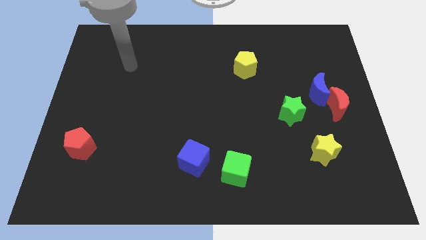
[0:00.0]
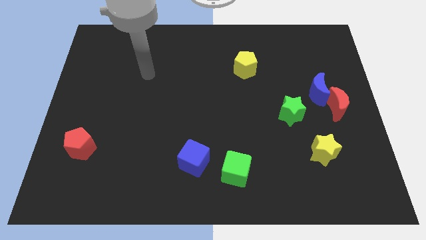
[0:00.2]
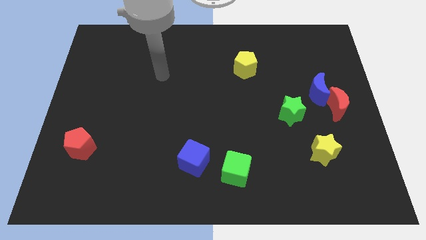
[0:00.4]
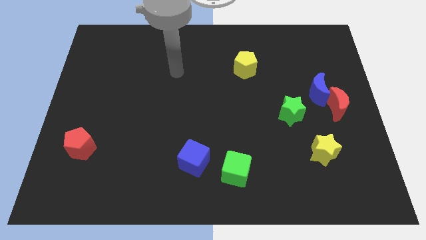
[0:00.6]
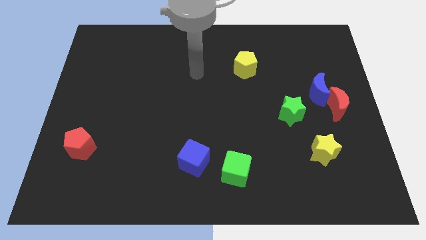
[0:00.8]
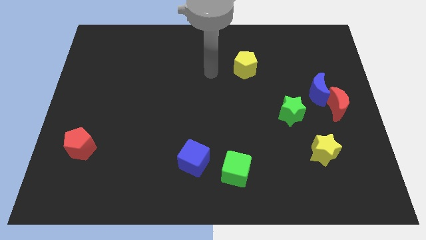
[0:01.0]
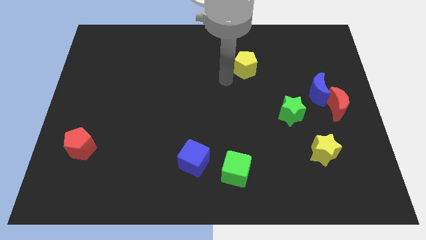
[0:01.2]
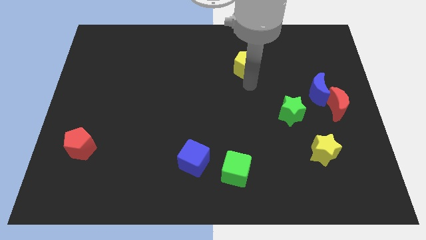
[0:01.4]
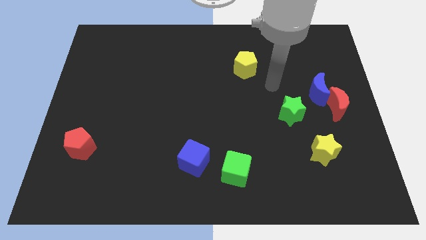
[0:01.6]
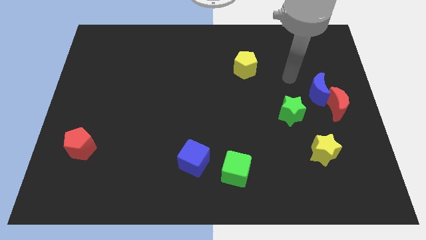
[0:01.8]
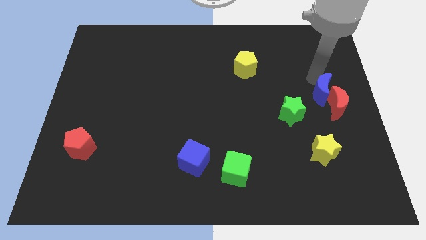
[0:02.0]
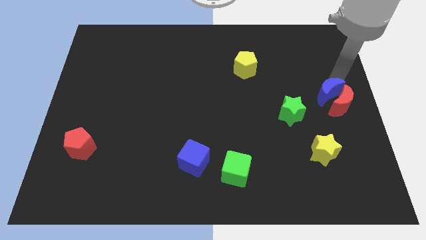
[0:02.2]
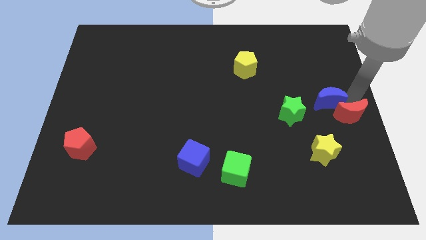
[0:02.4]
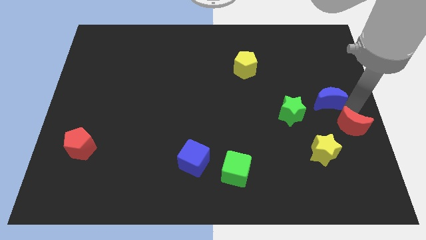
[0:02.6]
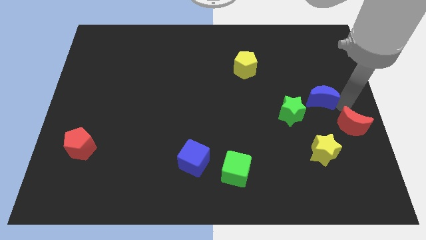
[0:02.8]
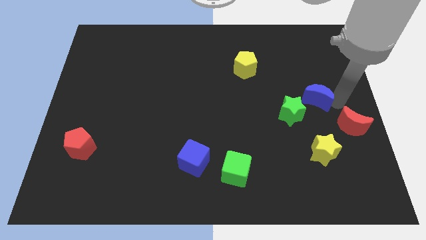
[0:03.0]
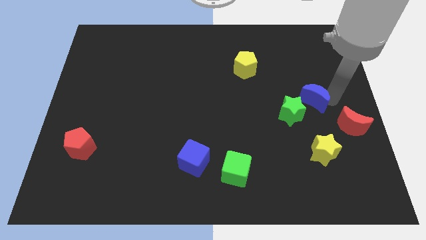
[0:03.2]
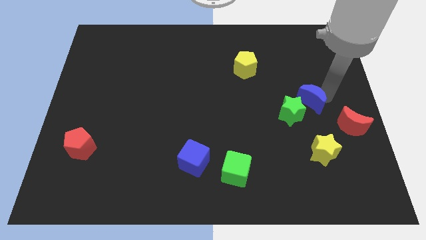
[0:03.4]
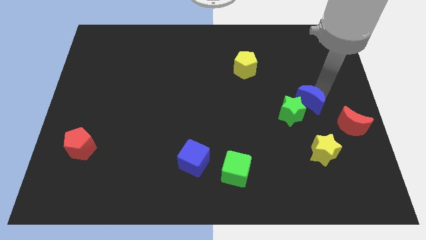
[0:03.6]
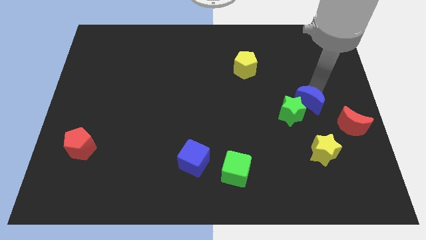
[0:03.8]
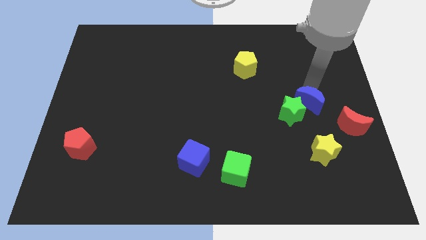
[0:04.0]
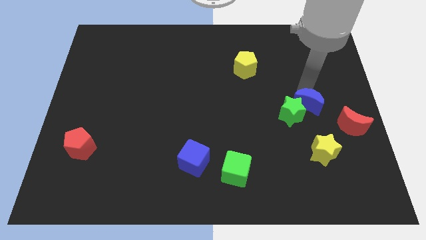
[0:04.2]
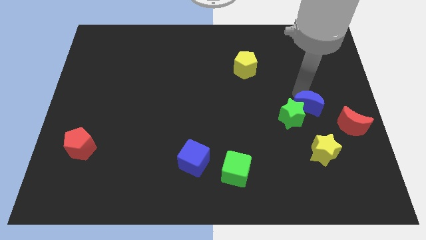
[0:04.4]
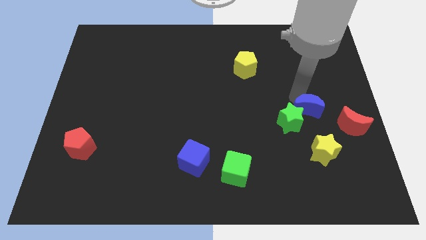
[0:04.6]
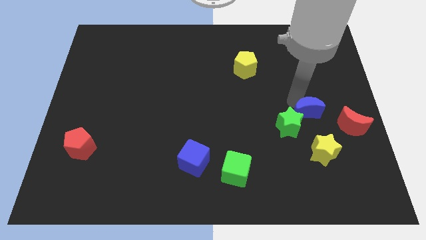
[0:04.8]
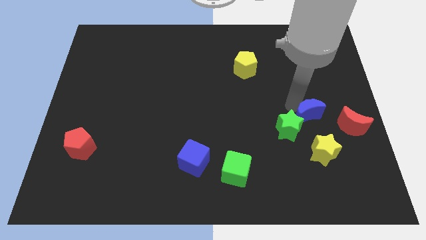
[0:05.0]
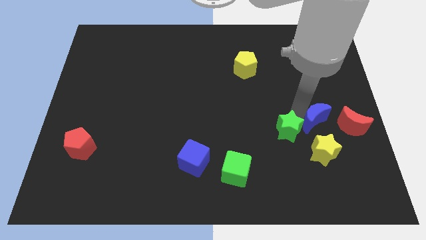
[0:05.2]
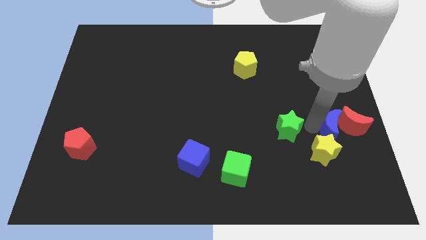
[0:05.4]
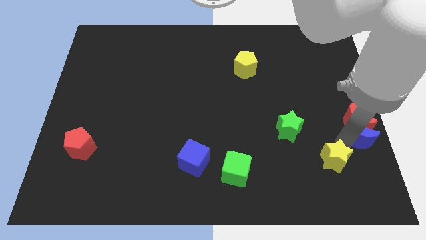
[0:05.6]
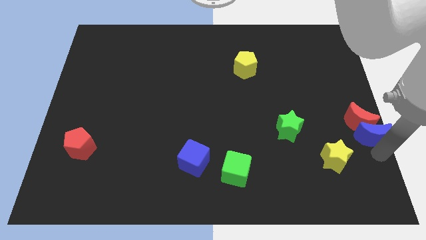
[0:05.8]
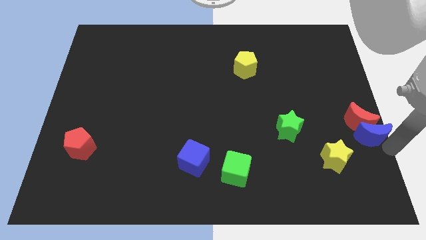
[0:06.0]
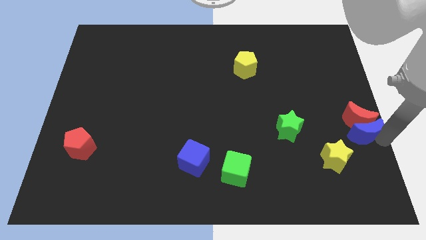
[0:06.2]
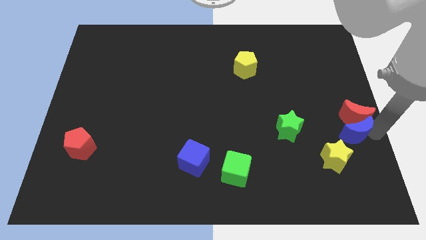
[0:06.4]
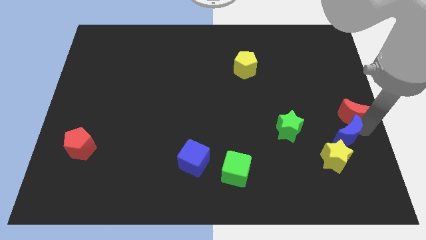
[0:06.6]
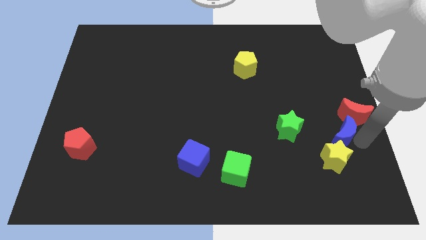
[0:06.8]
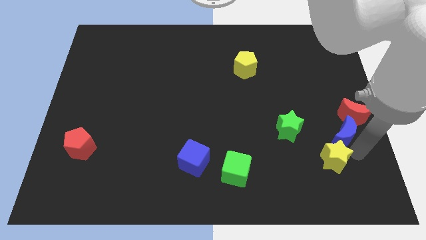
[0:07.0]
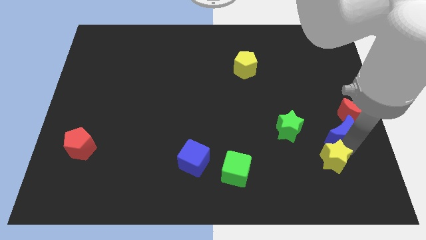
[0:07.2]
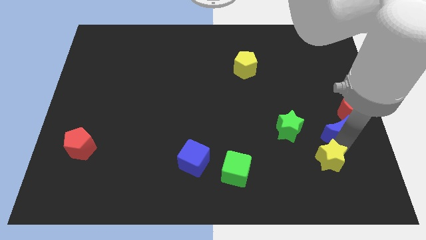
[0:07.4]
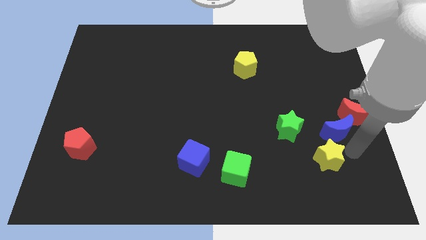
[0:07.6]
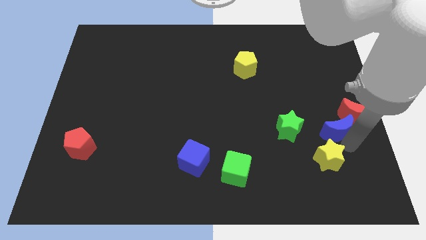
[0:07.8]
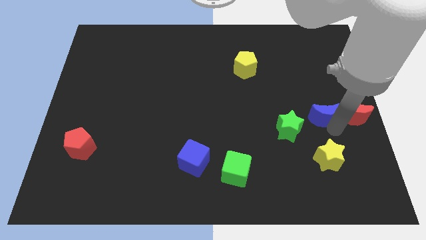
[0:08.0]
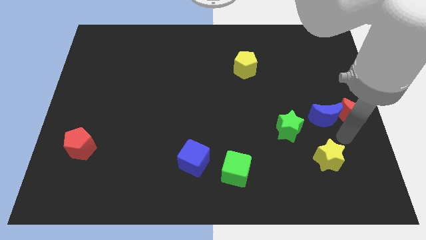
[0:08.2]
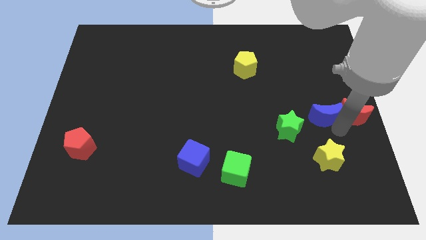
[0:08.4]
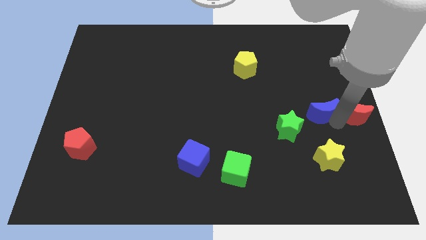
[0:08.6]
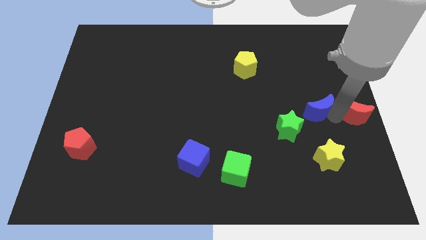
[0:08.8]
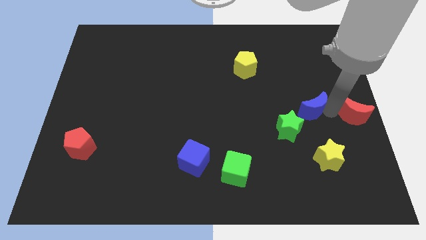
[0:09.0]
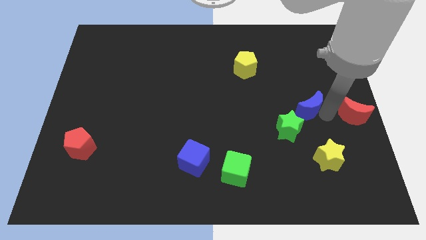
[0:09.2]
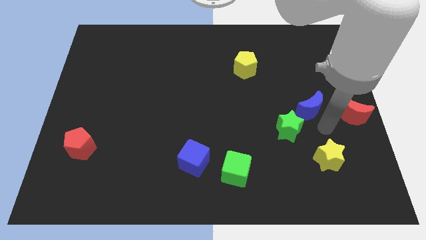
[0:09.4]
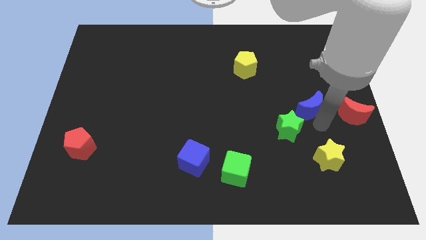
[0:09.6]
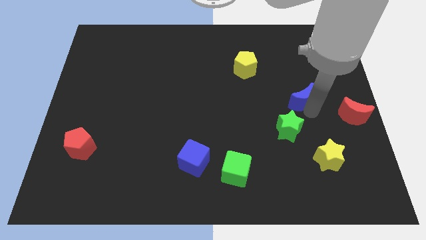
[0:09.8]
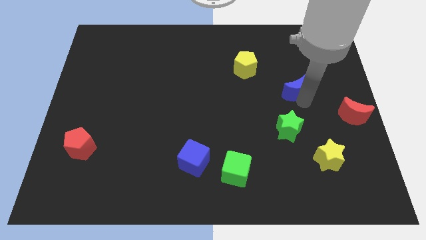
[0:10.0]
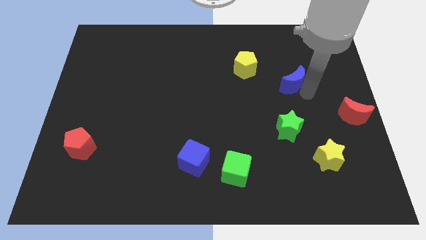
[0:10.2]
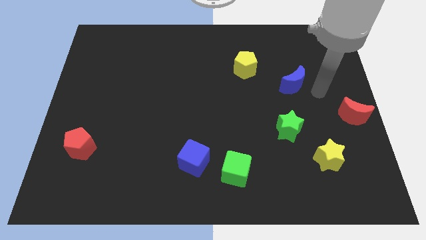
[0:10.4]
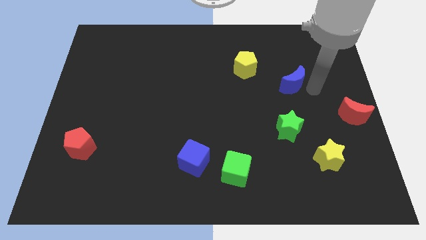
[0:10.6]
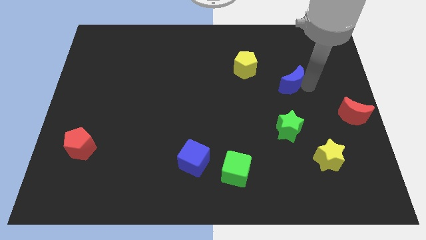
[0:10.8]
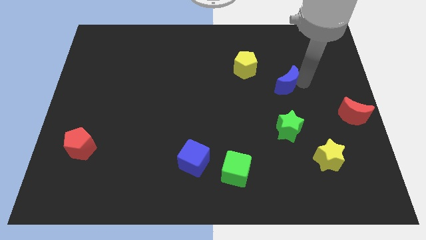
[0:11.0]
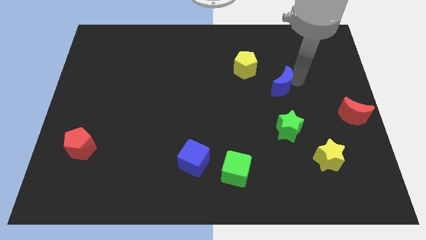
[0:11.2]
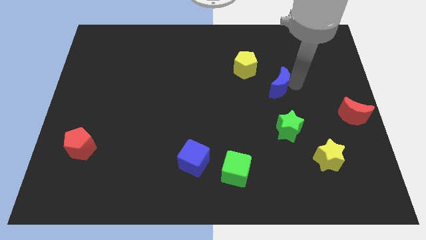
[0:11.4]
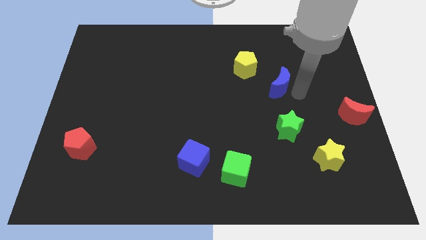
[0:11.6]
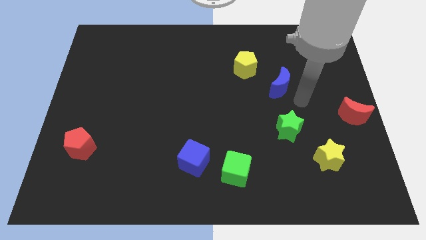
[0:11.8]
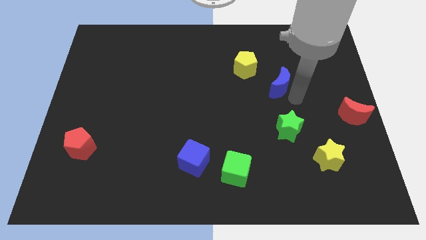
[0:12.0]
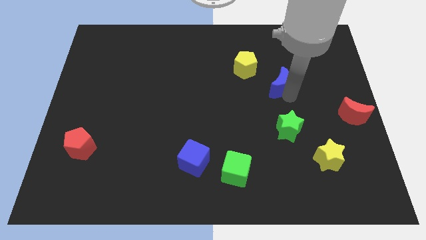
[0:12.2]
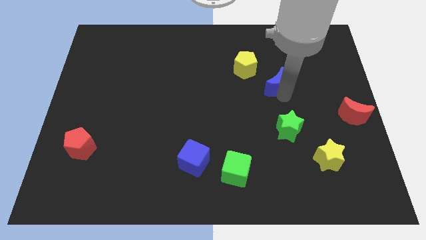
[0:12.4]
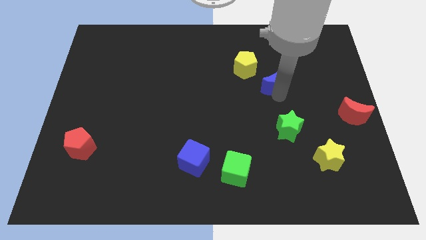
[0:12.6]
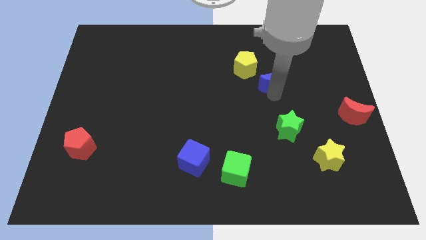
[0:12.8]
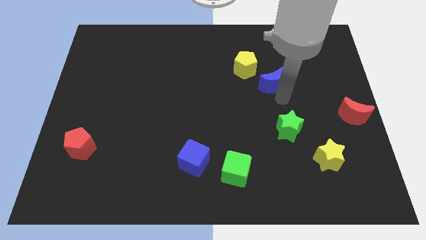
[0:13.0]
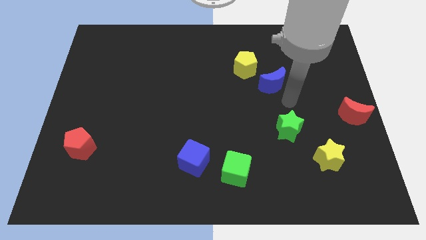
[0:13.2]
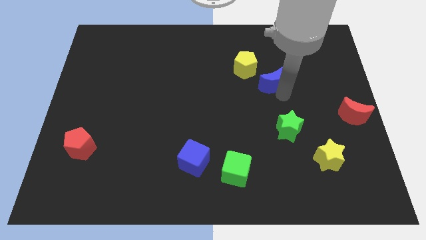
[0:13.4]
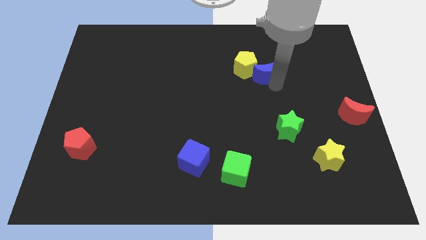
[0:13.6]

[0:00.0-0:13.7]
put the blue moon next to the yellow pentagon

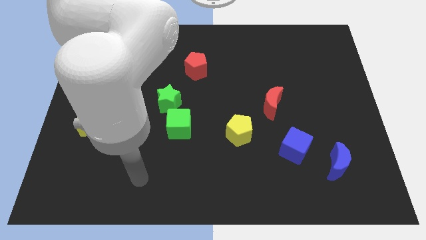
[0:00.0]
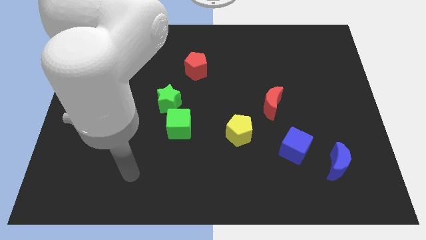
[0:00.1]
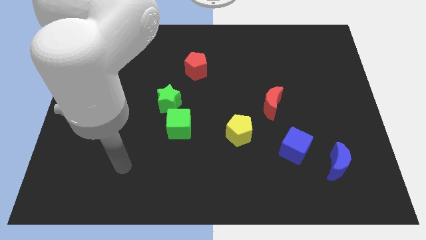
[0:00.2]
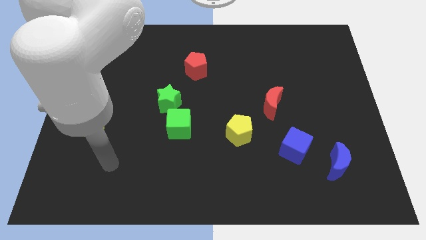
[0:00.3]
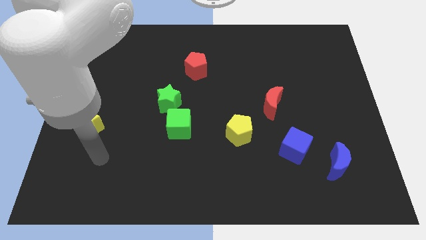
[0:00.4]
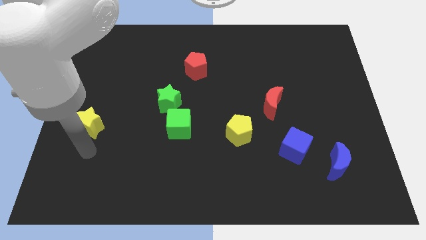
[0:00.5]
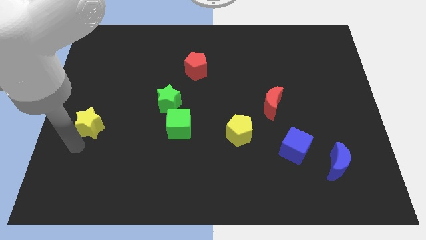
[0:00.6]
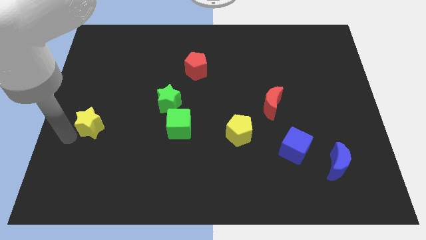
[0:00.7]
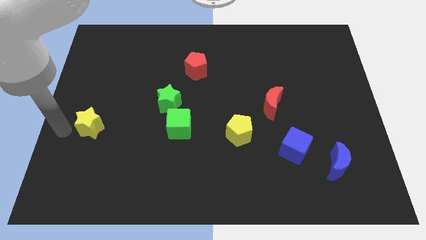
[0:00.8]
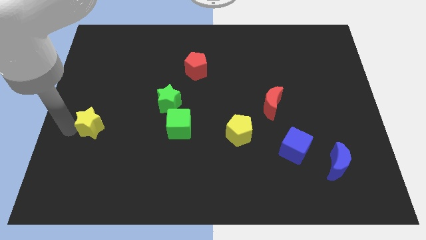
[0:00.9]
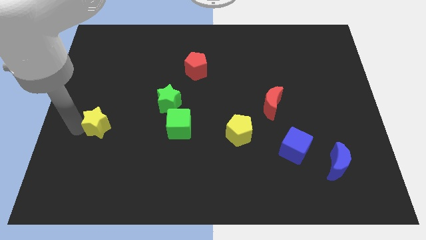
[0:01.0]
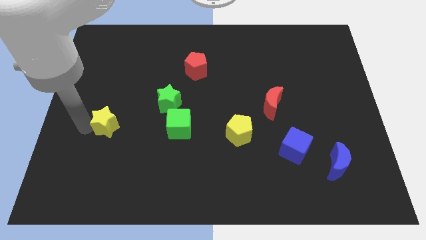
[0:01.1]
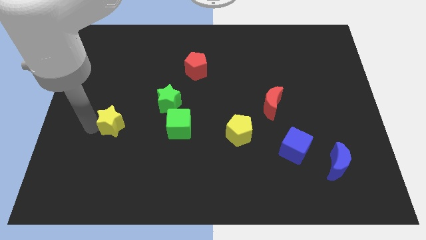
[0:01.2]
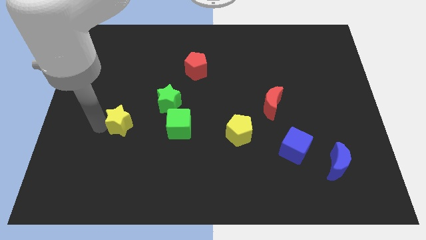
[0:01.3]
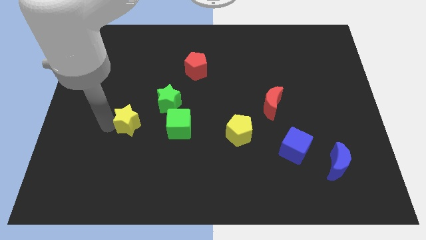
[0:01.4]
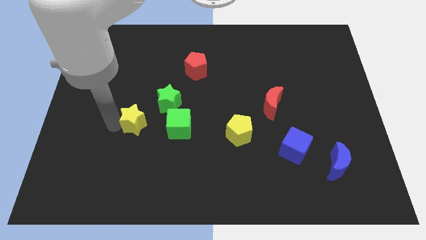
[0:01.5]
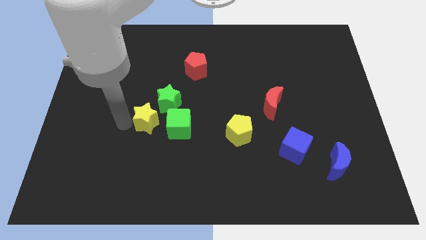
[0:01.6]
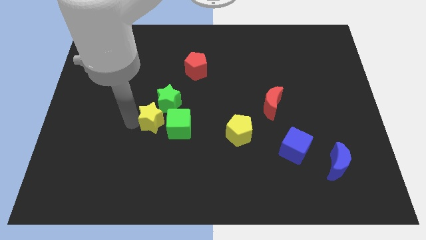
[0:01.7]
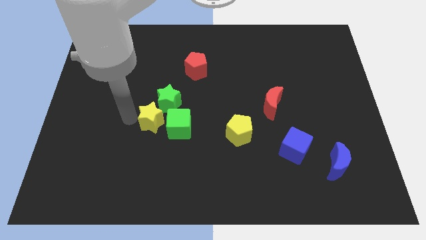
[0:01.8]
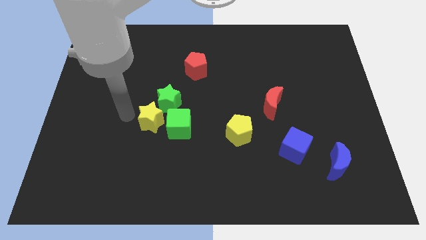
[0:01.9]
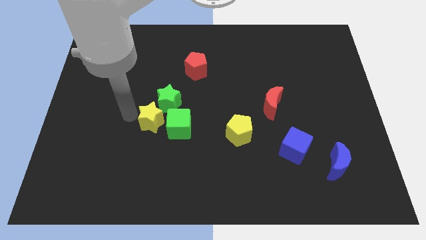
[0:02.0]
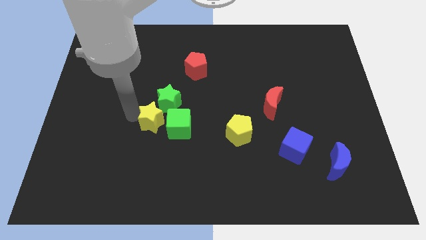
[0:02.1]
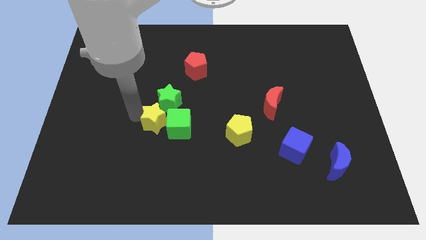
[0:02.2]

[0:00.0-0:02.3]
push the yellow star close to the green cube
